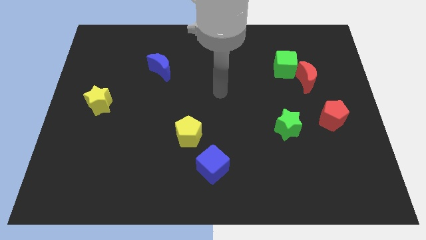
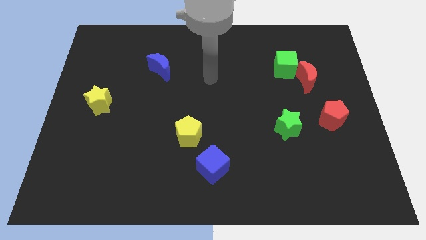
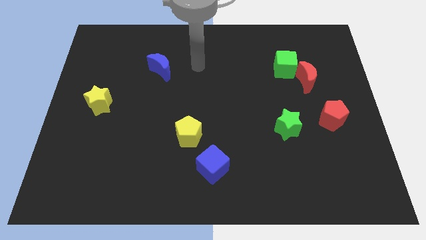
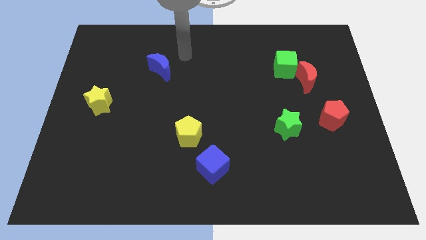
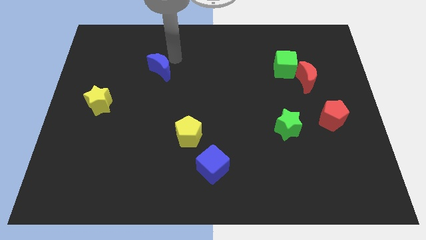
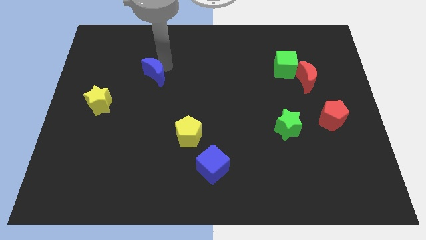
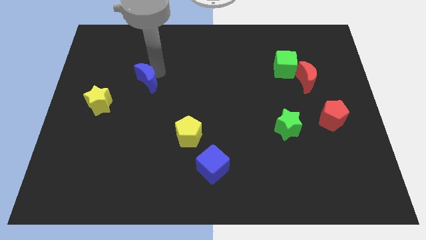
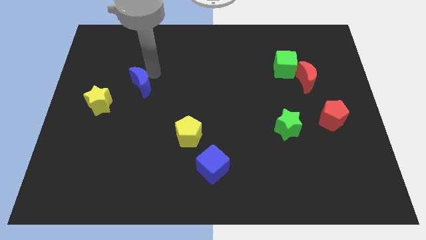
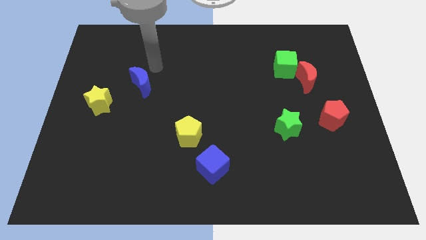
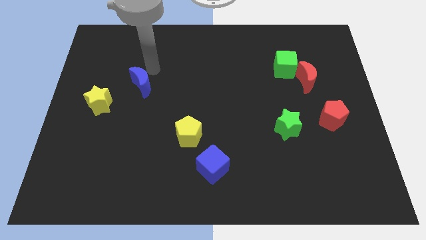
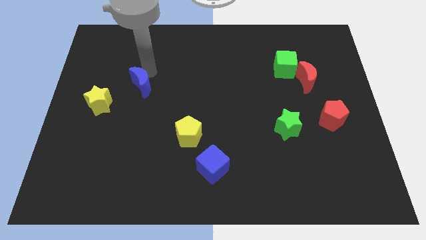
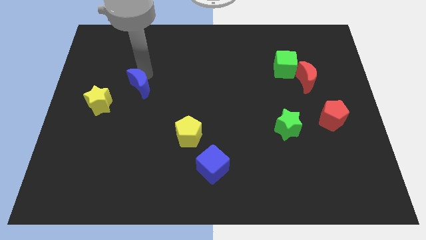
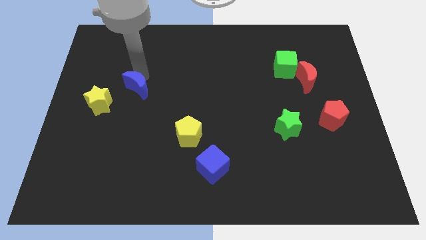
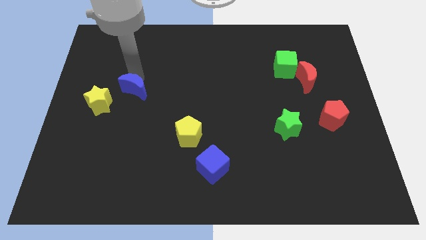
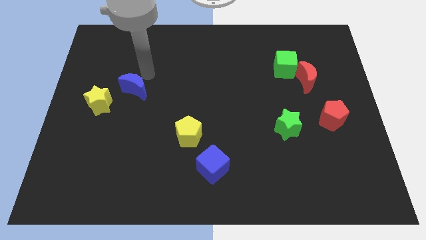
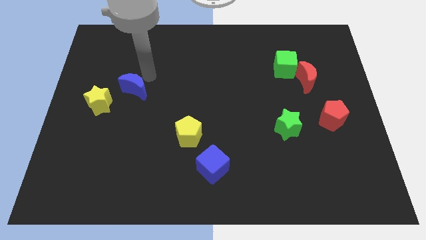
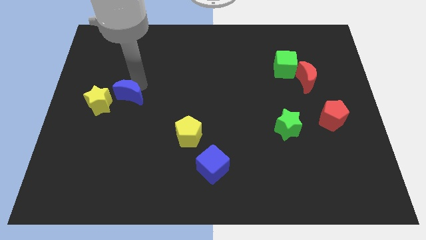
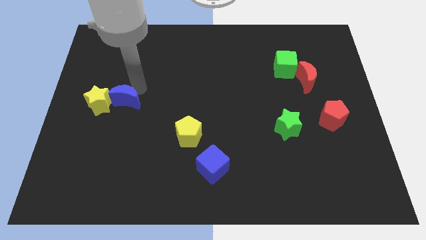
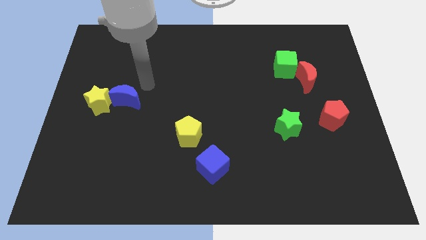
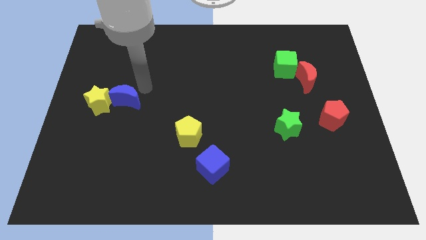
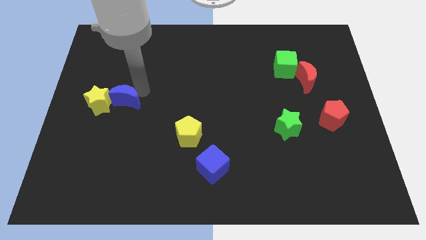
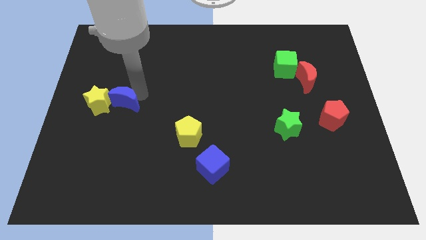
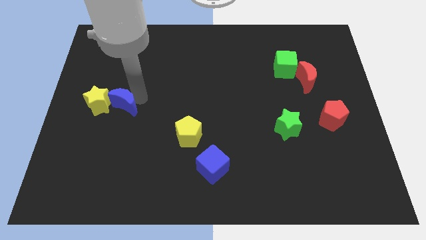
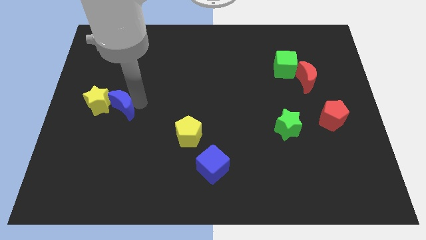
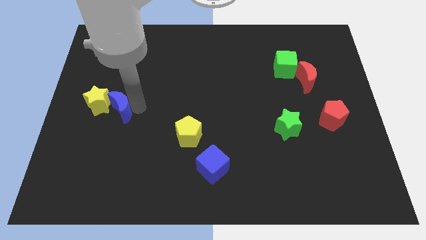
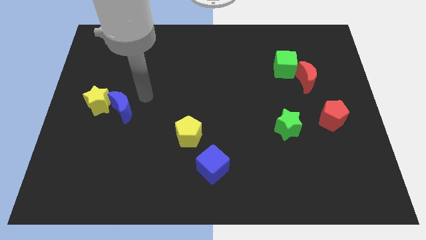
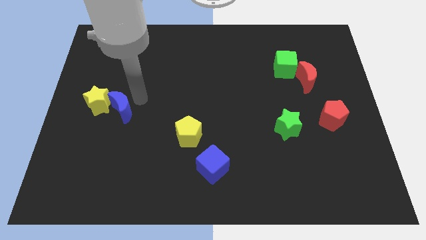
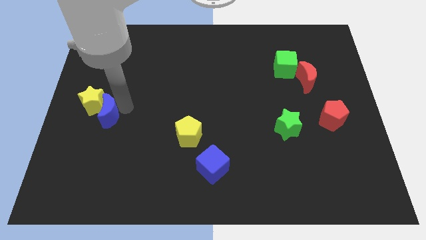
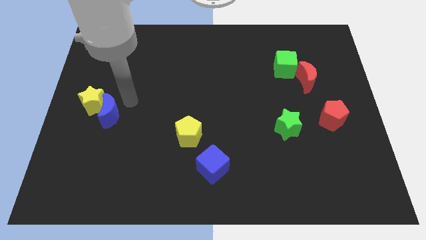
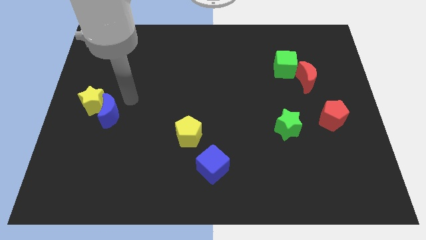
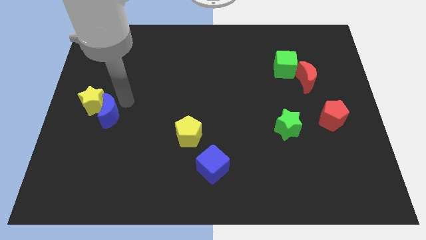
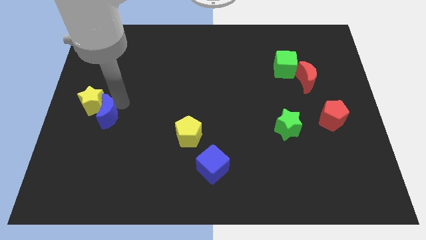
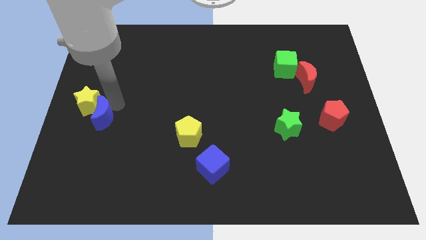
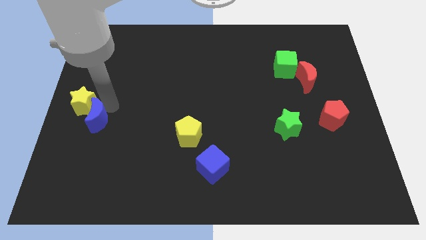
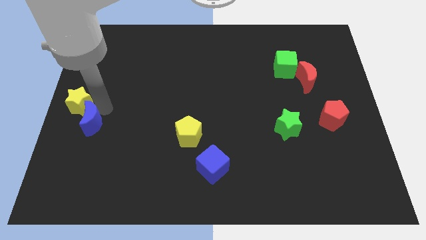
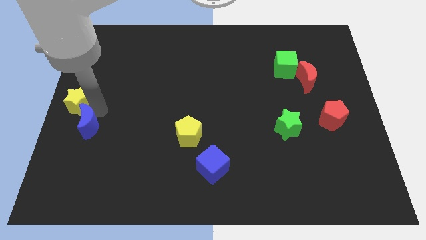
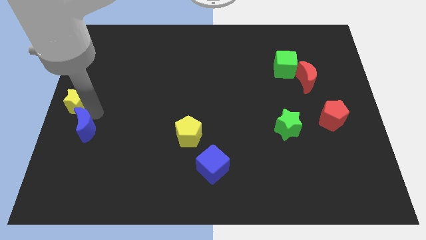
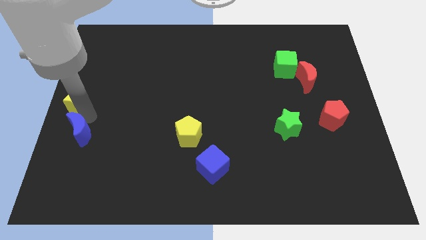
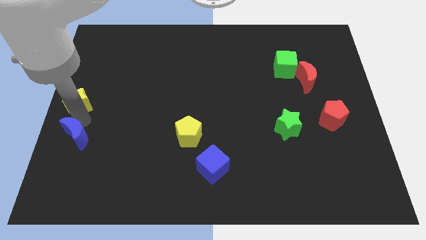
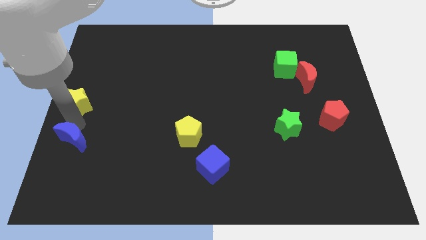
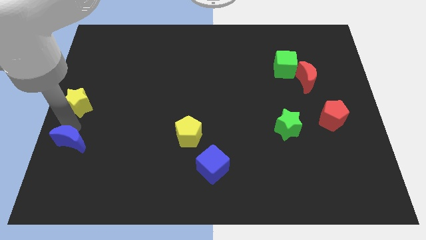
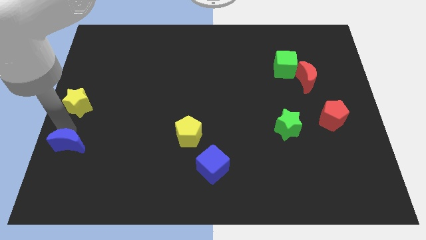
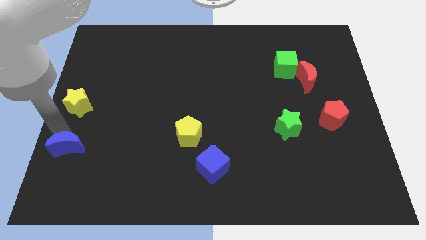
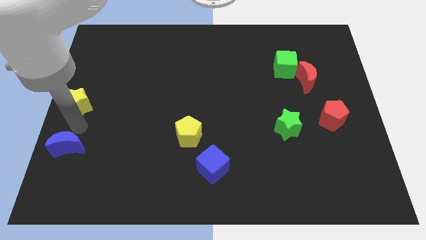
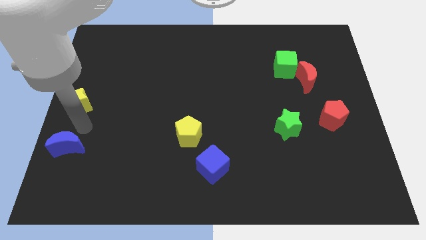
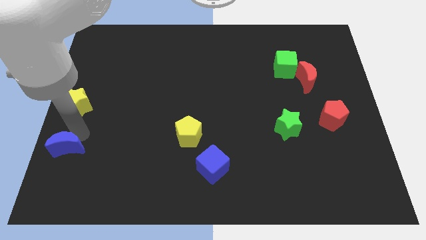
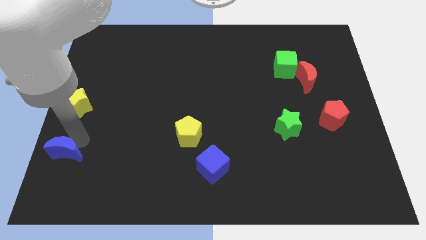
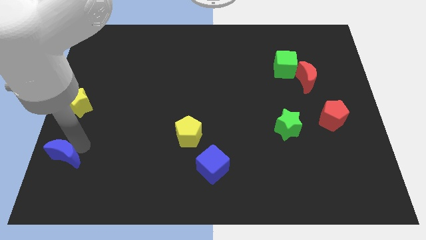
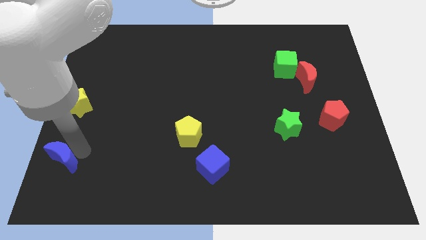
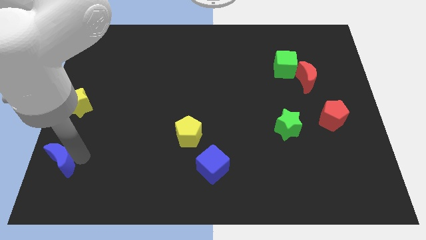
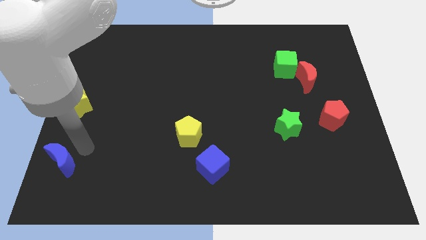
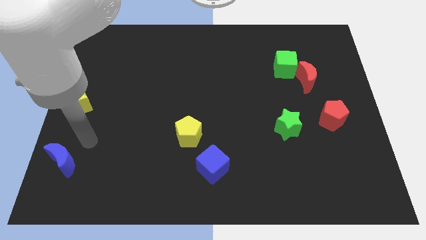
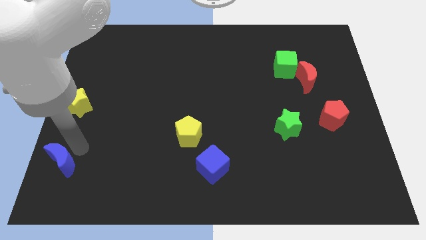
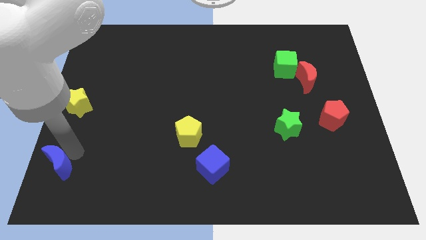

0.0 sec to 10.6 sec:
put the blue moon to the bottom left corner

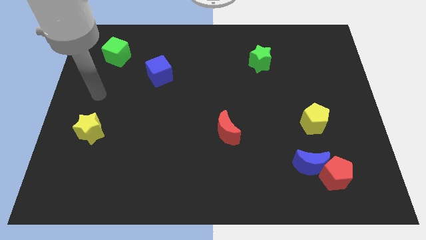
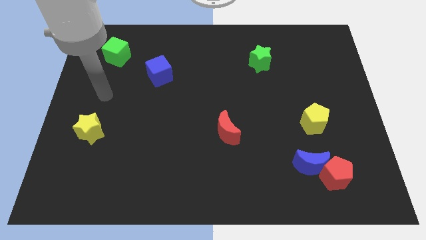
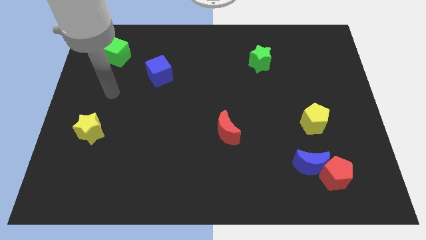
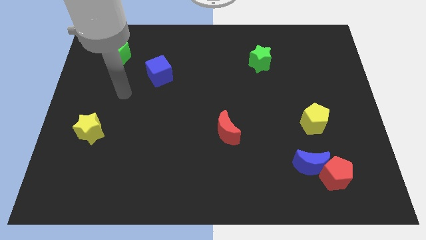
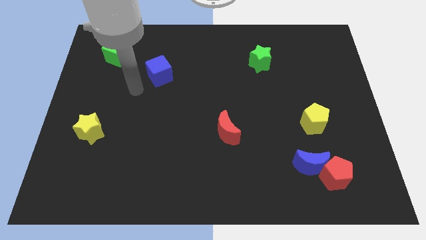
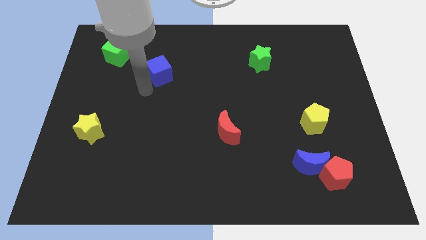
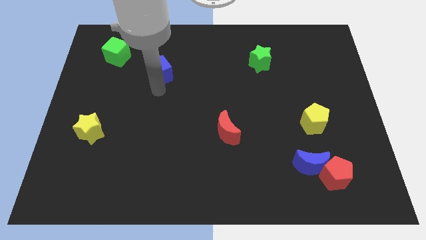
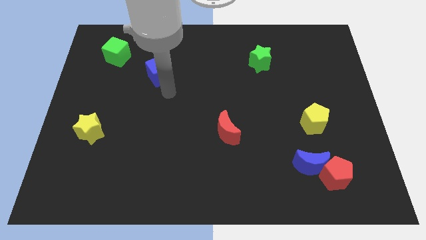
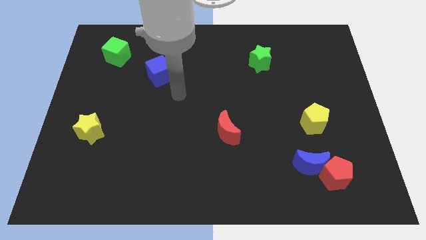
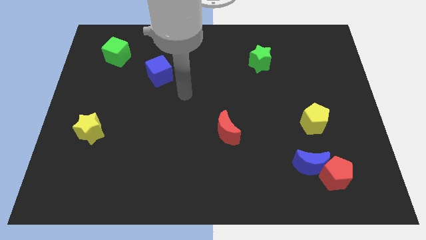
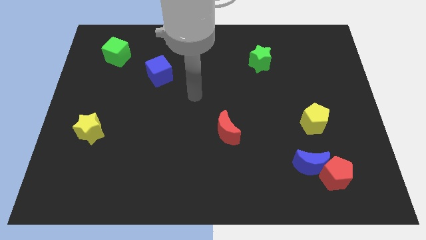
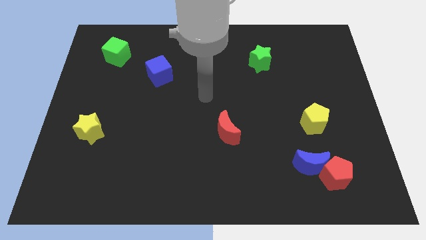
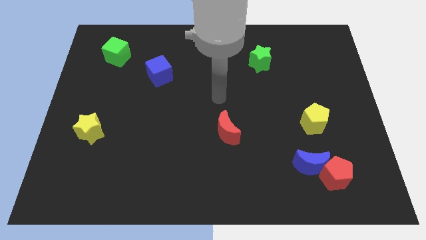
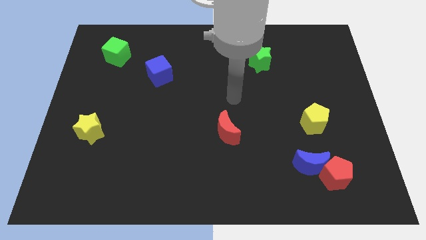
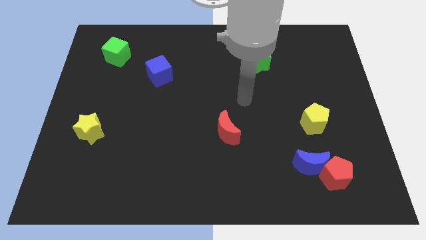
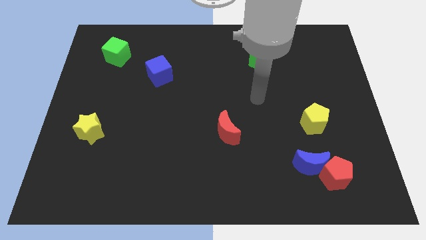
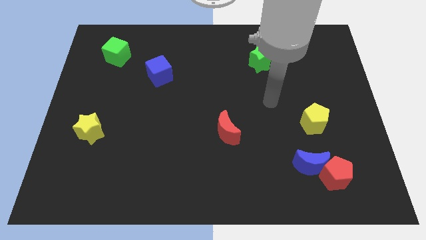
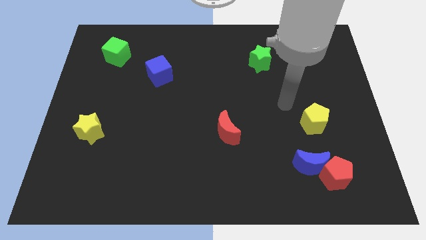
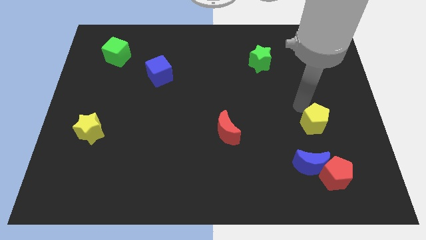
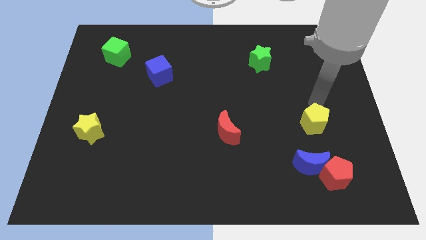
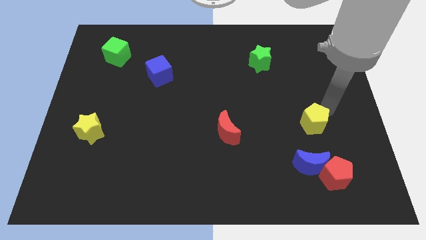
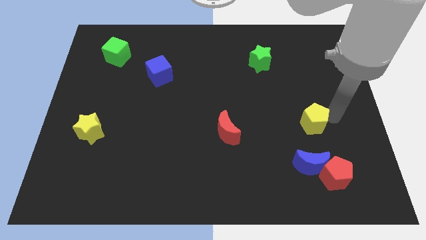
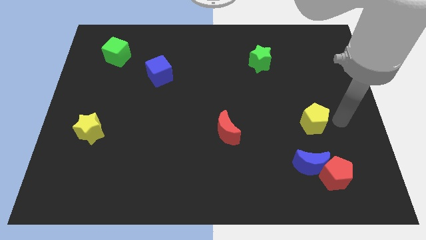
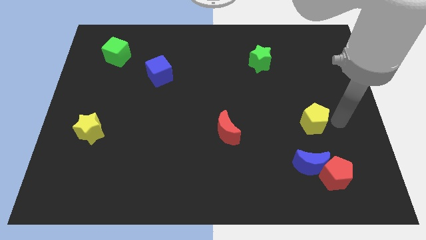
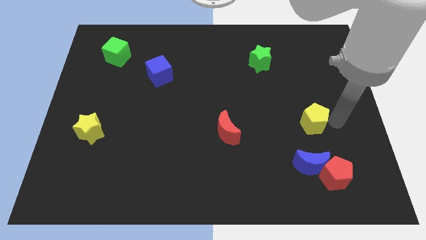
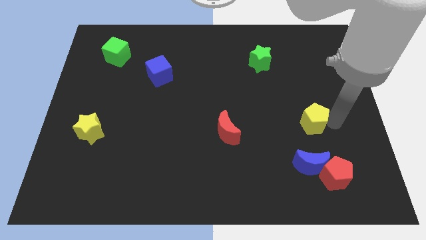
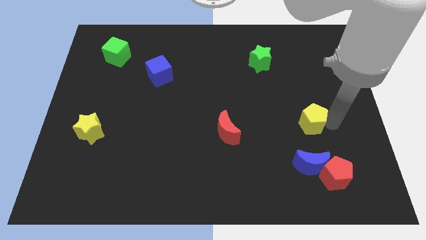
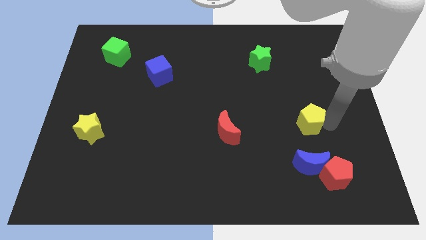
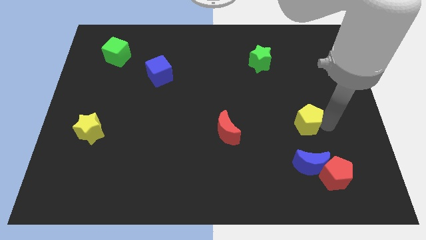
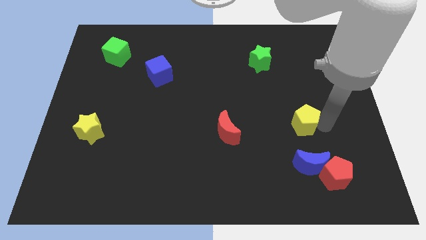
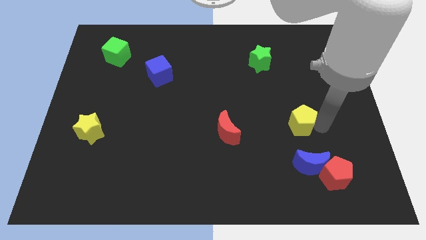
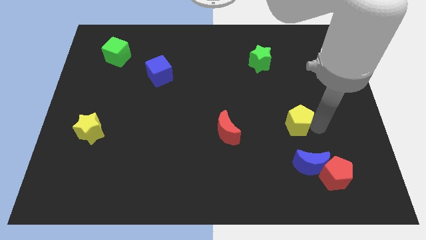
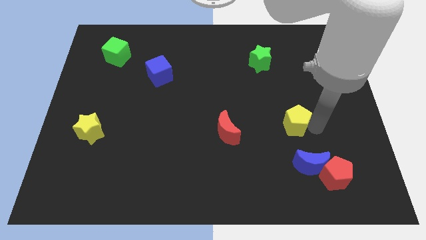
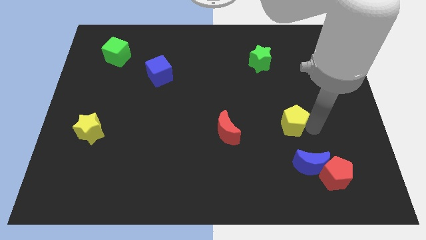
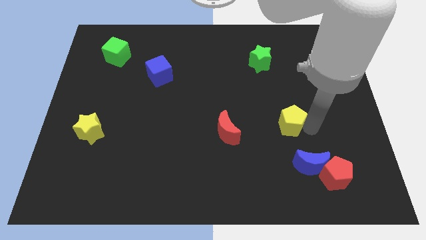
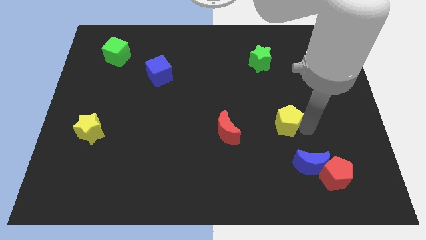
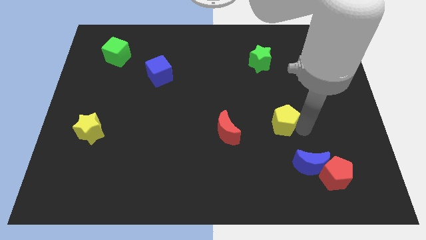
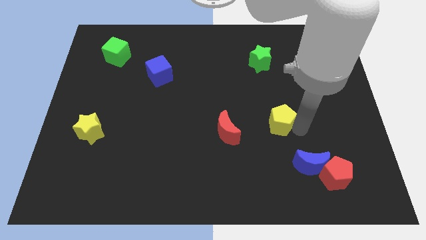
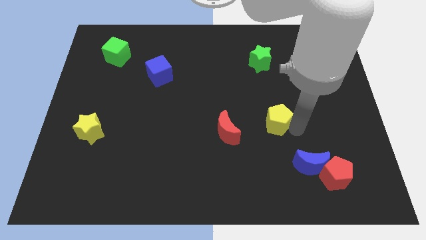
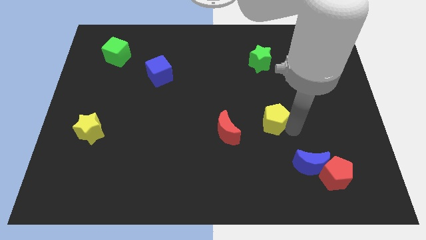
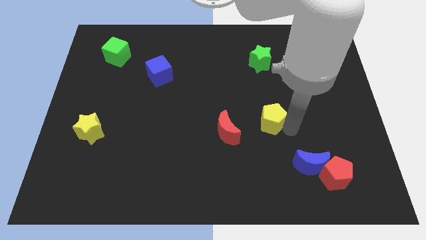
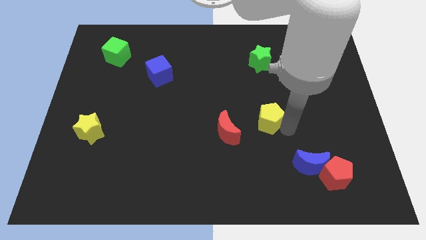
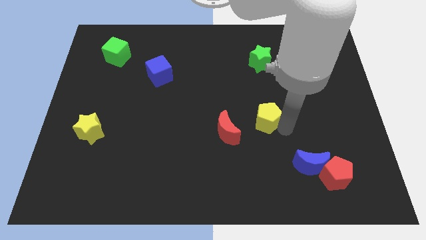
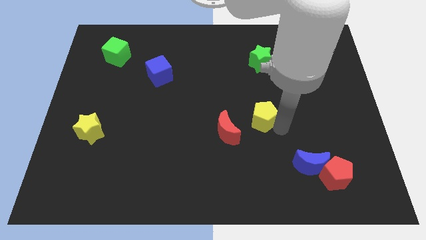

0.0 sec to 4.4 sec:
move the yellow pentagon to the center
